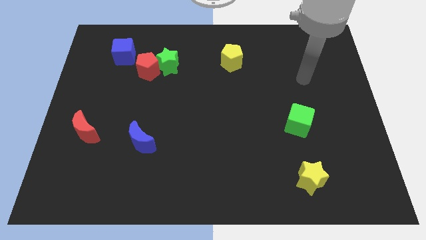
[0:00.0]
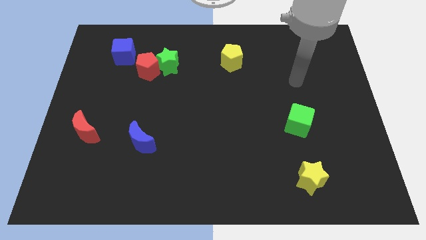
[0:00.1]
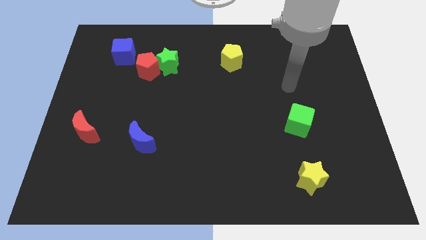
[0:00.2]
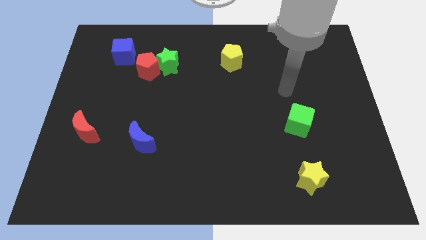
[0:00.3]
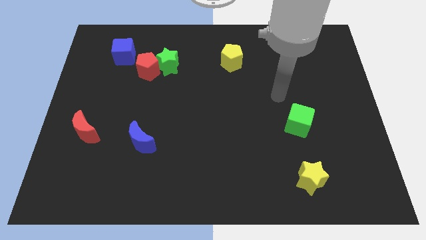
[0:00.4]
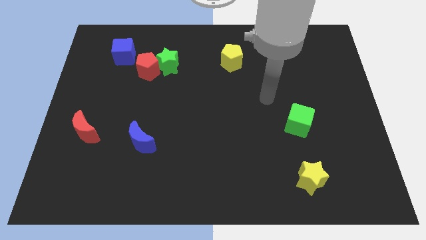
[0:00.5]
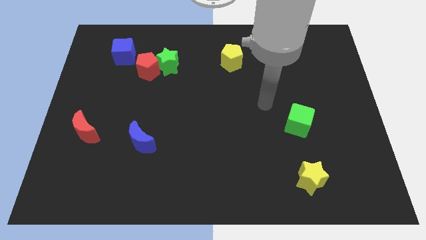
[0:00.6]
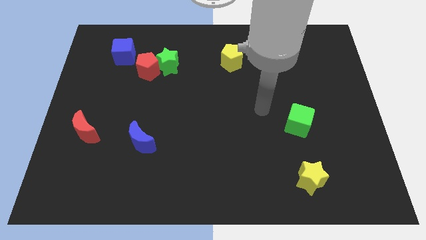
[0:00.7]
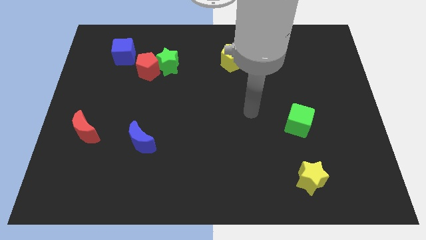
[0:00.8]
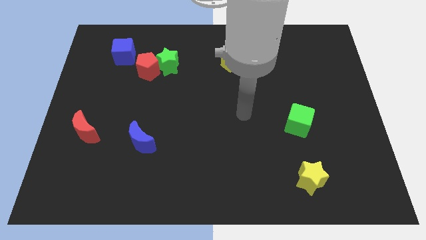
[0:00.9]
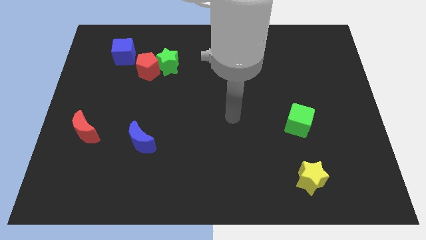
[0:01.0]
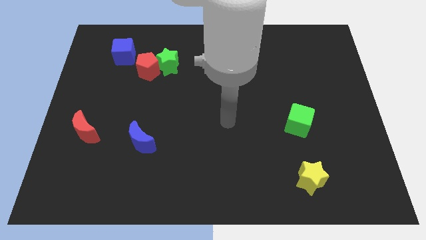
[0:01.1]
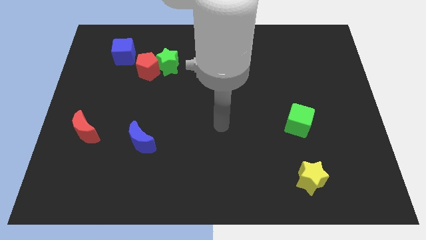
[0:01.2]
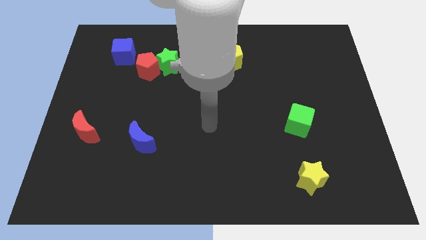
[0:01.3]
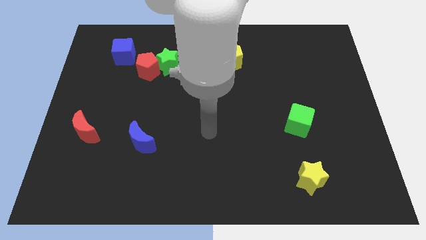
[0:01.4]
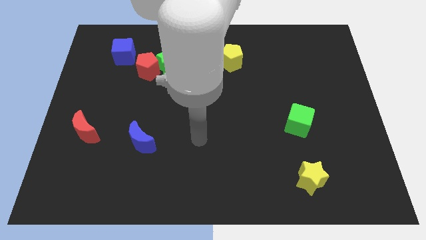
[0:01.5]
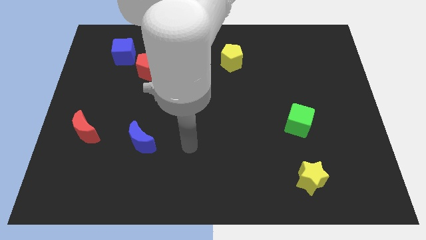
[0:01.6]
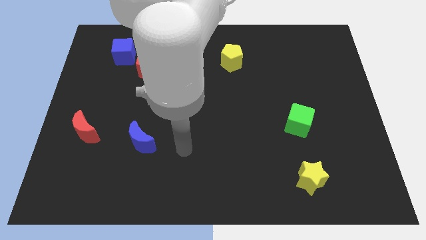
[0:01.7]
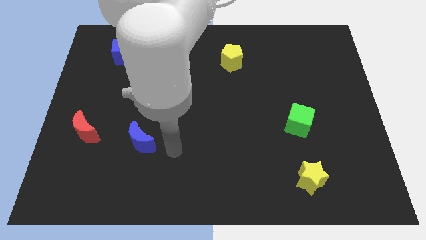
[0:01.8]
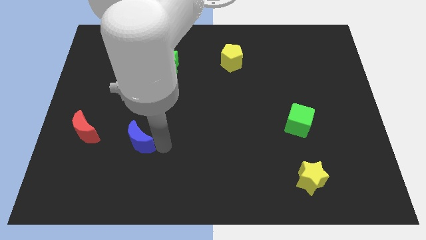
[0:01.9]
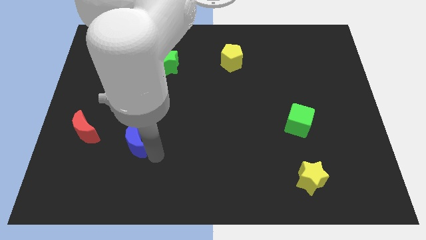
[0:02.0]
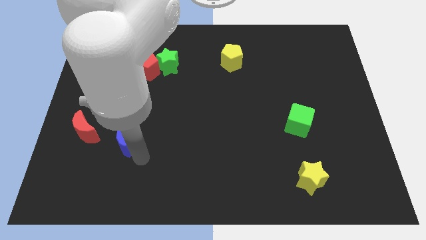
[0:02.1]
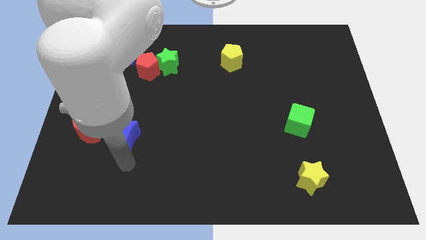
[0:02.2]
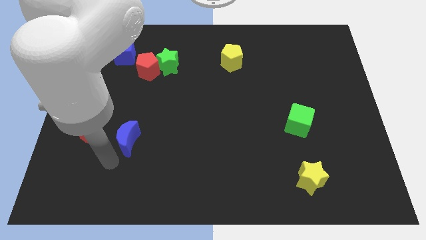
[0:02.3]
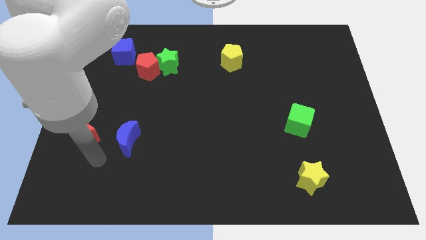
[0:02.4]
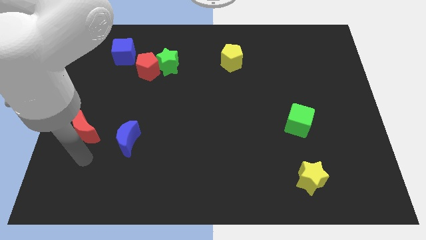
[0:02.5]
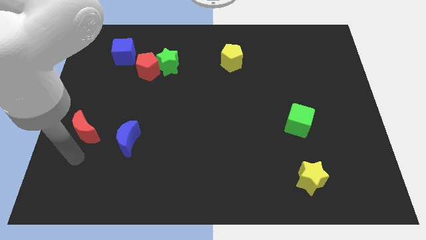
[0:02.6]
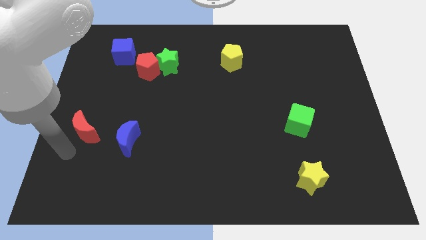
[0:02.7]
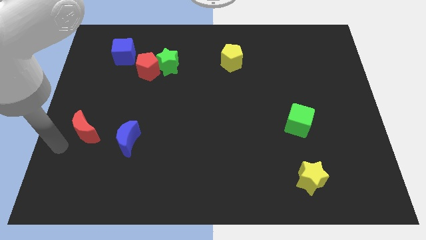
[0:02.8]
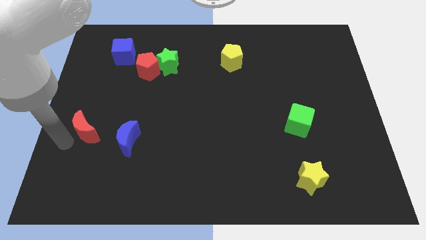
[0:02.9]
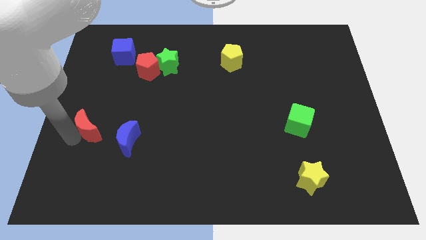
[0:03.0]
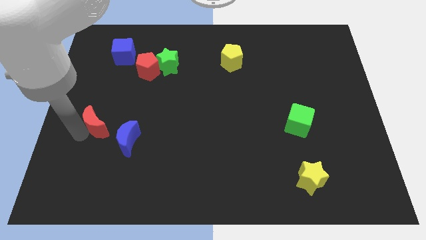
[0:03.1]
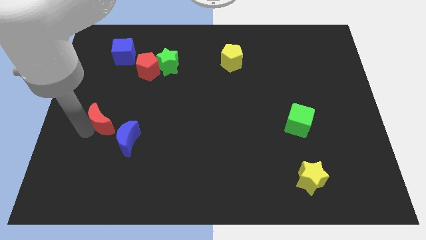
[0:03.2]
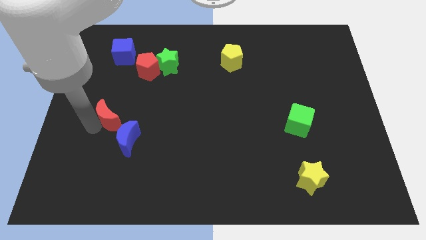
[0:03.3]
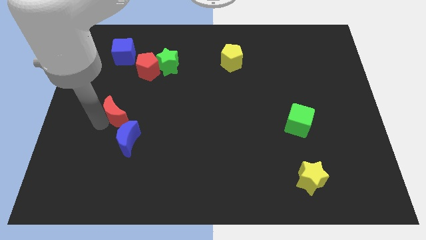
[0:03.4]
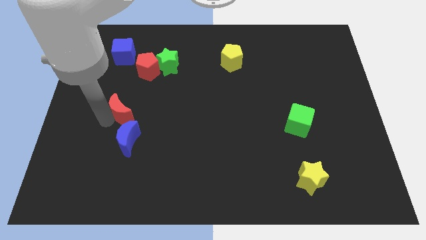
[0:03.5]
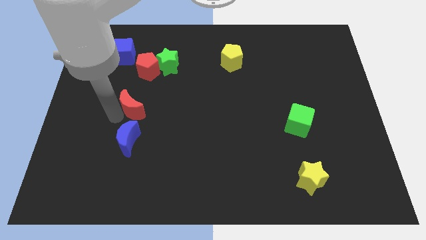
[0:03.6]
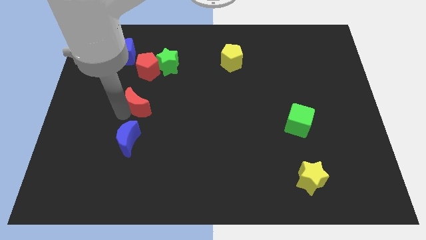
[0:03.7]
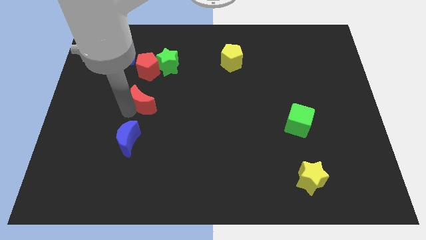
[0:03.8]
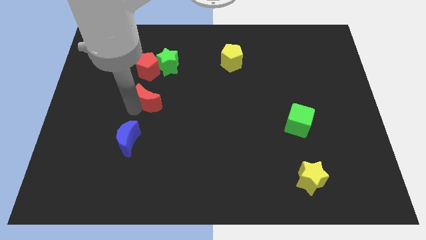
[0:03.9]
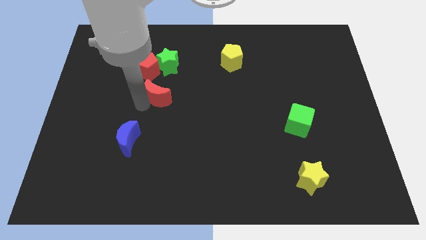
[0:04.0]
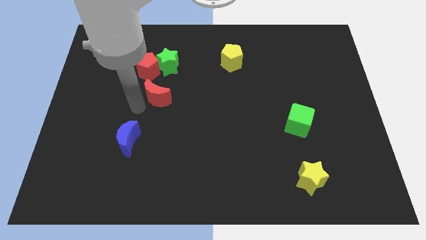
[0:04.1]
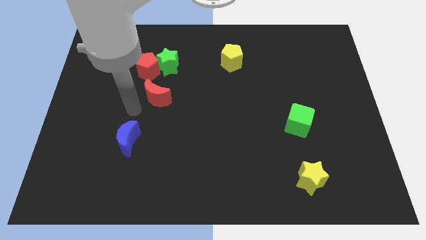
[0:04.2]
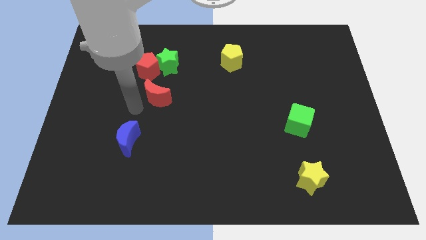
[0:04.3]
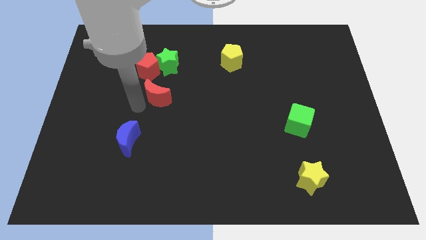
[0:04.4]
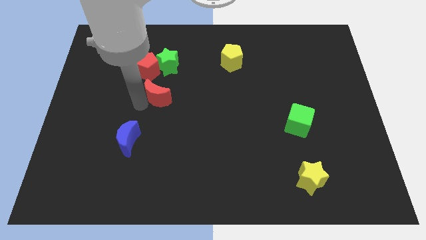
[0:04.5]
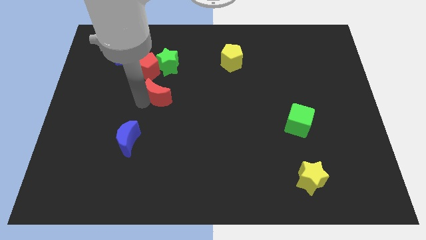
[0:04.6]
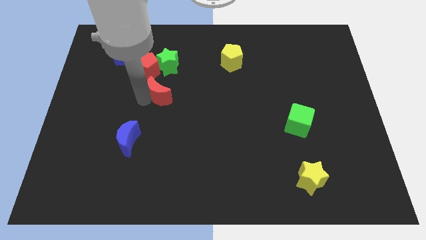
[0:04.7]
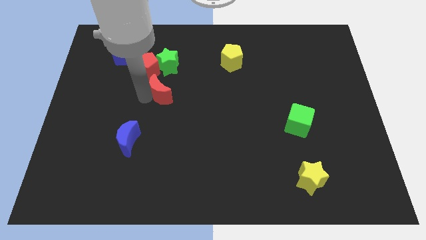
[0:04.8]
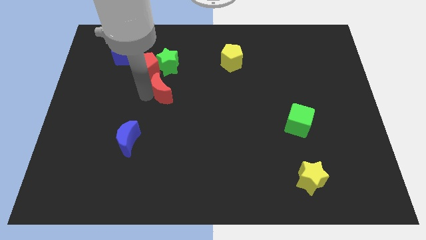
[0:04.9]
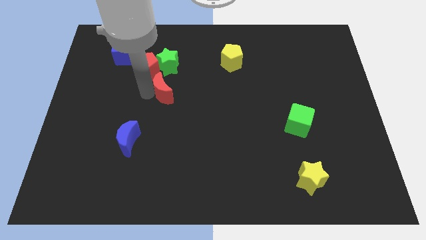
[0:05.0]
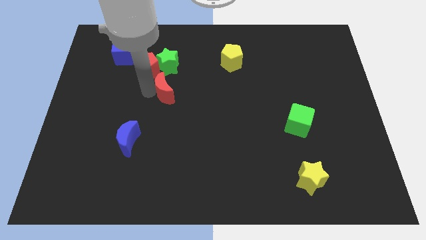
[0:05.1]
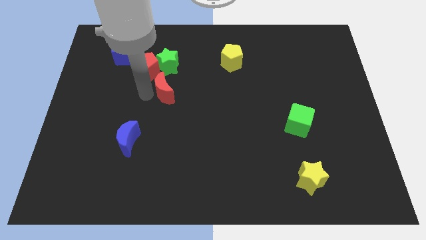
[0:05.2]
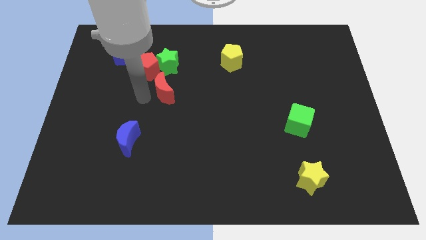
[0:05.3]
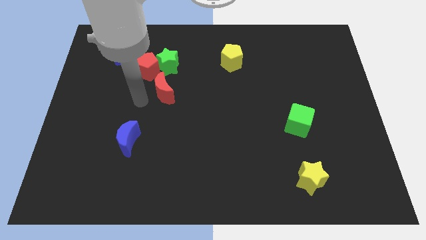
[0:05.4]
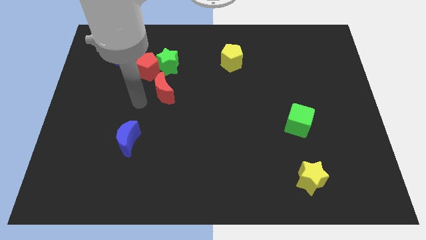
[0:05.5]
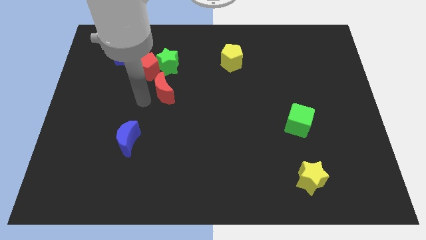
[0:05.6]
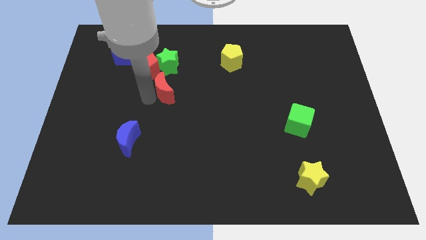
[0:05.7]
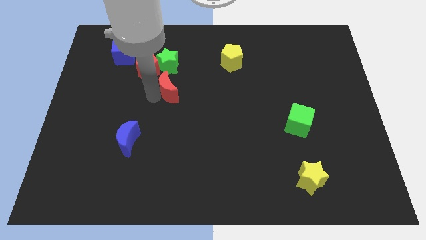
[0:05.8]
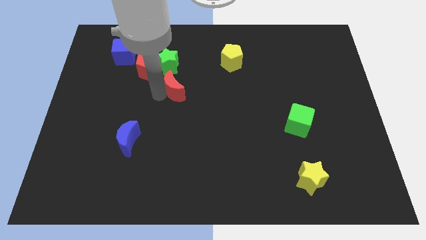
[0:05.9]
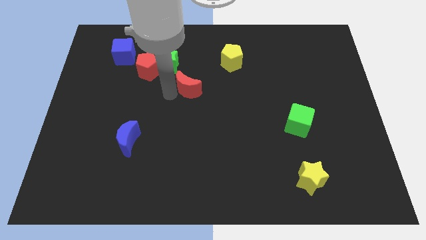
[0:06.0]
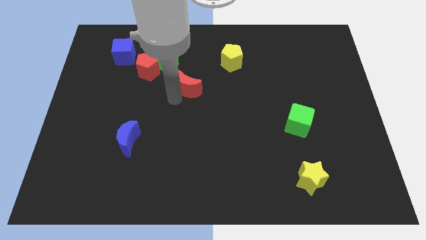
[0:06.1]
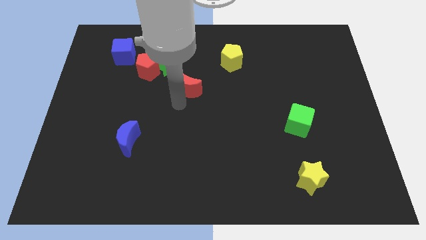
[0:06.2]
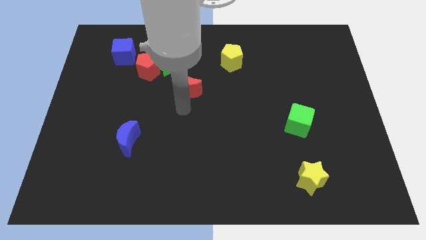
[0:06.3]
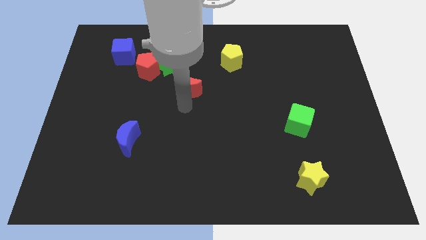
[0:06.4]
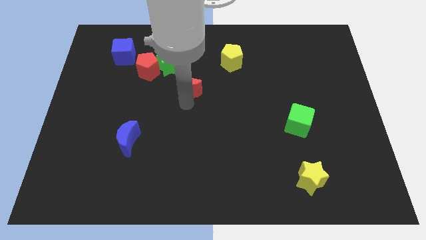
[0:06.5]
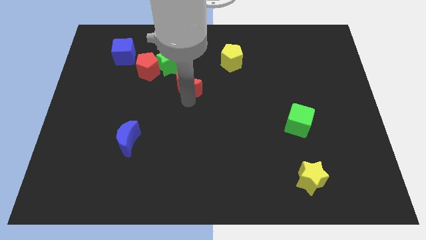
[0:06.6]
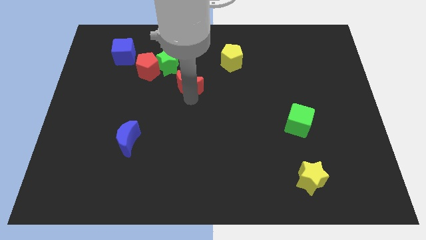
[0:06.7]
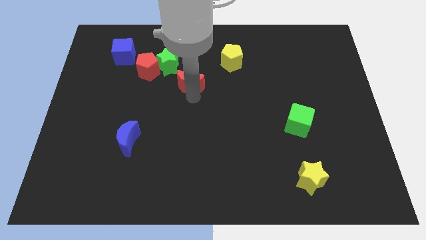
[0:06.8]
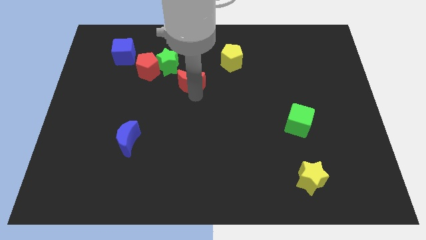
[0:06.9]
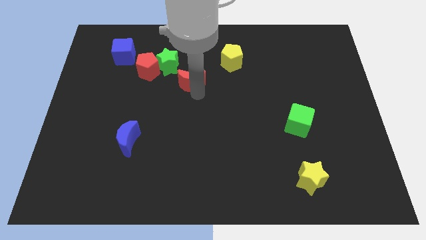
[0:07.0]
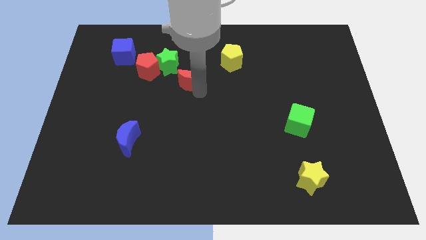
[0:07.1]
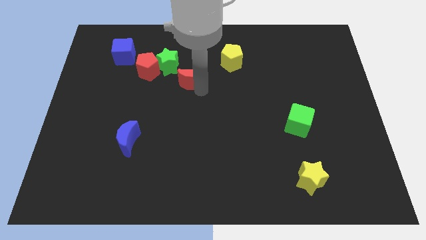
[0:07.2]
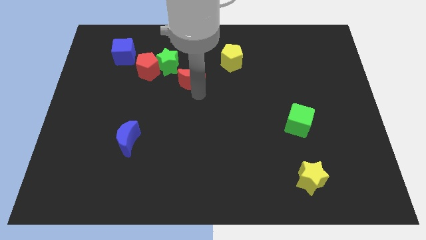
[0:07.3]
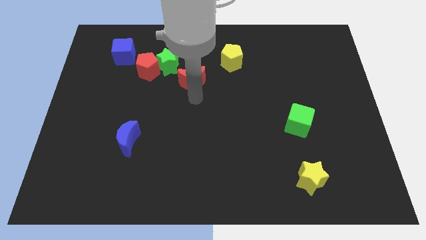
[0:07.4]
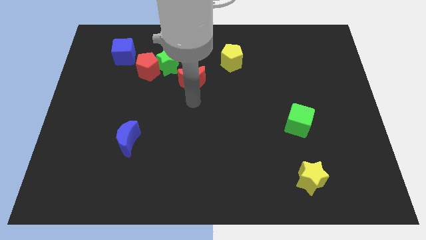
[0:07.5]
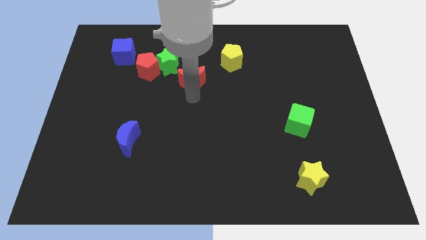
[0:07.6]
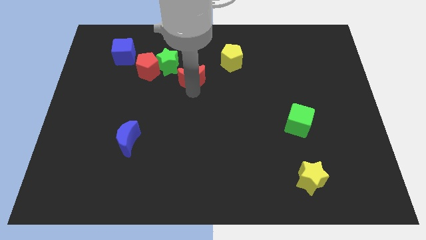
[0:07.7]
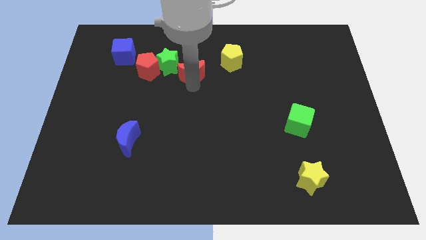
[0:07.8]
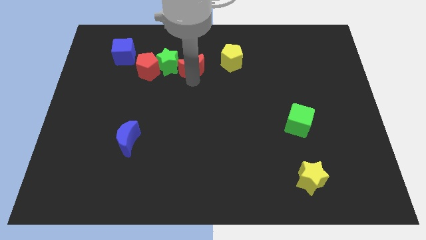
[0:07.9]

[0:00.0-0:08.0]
put the red moon to the left of the yellow pentagon
